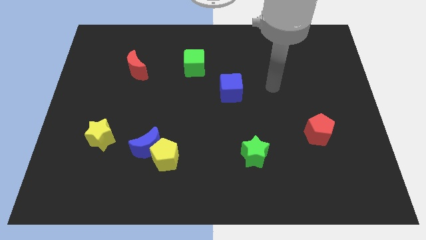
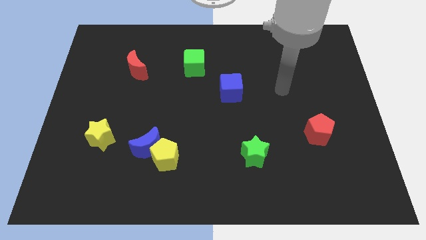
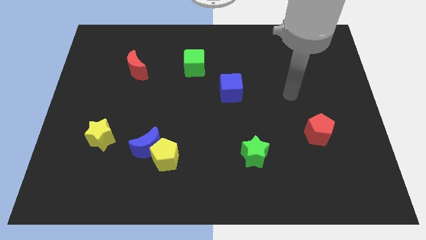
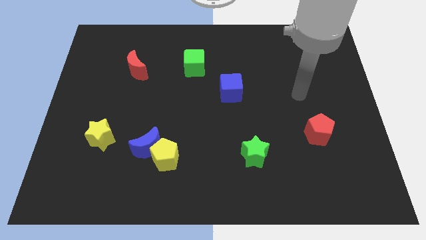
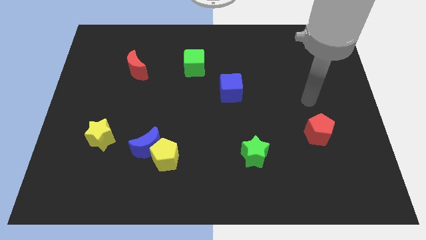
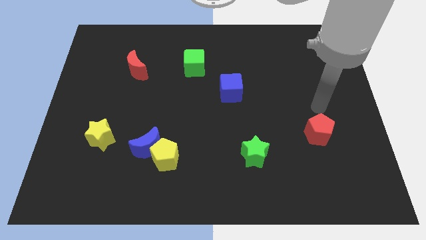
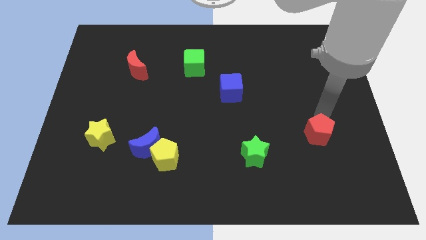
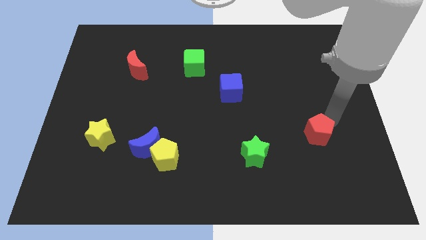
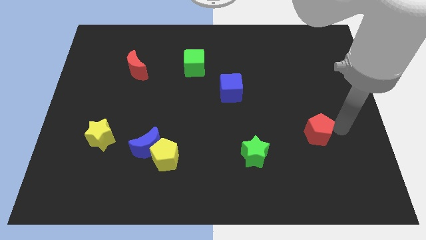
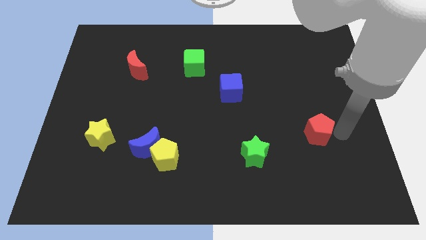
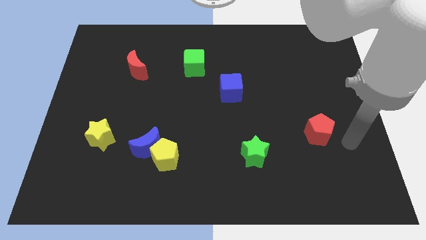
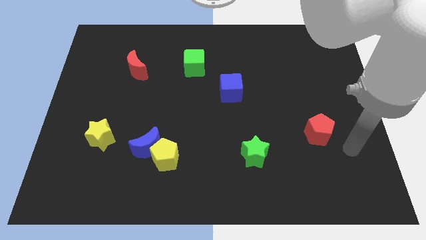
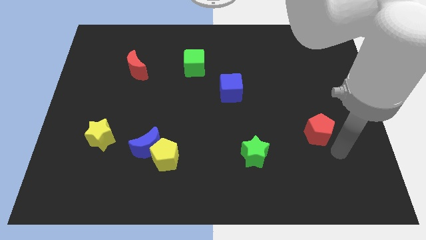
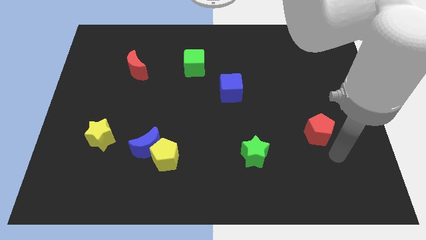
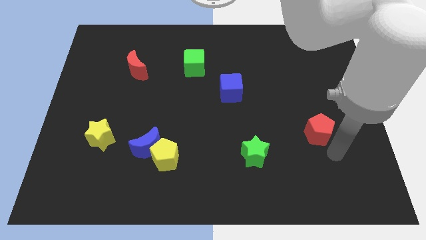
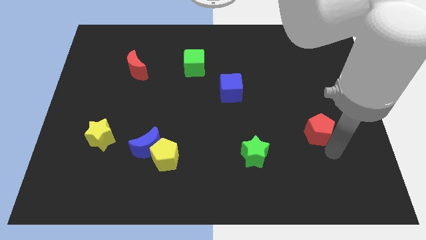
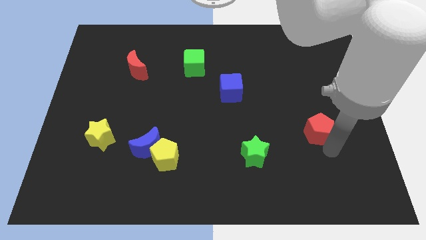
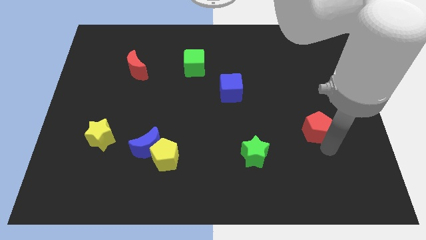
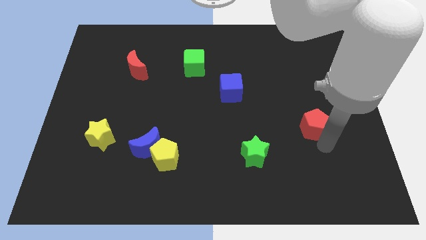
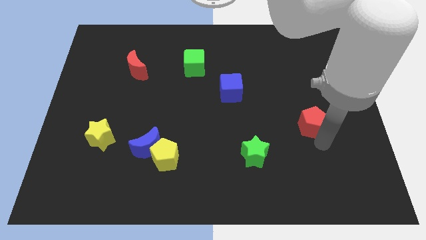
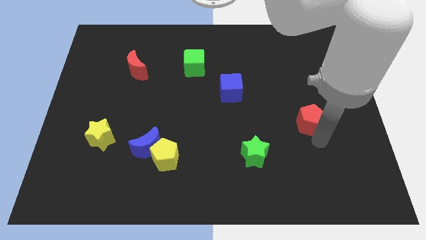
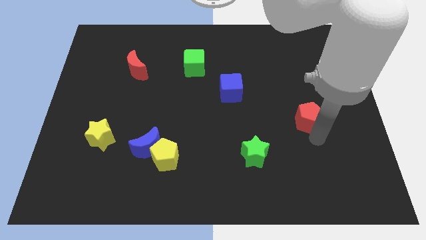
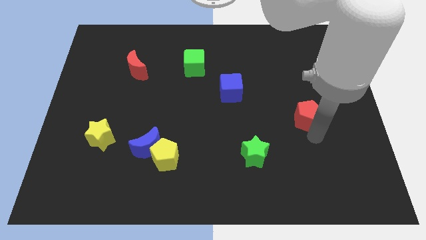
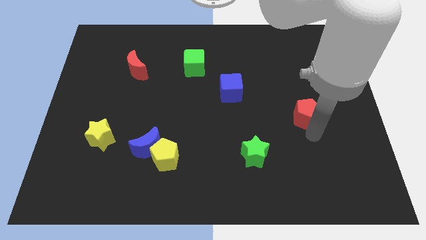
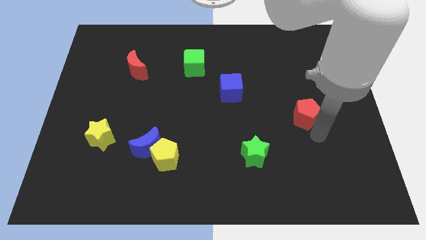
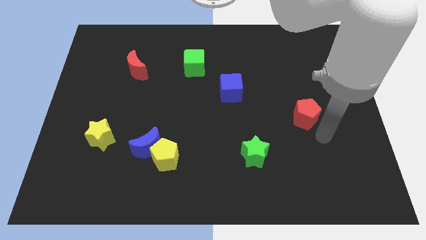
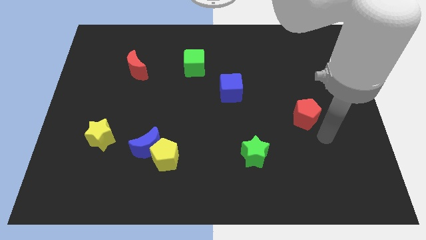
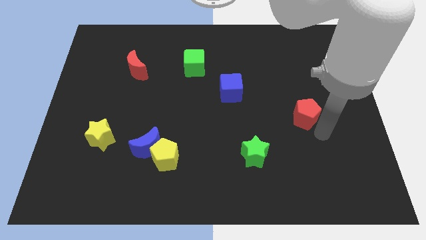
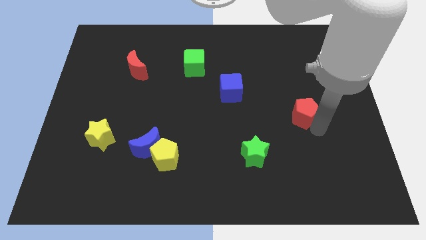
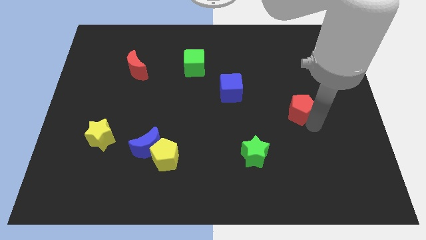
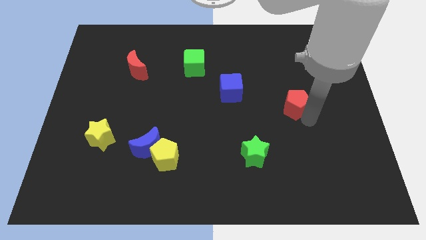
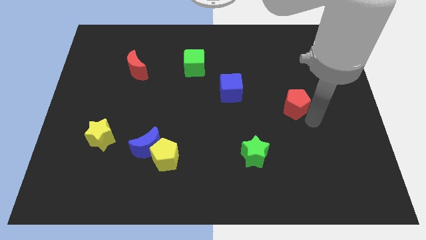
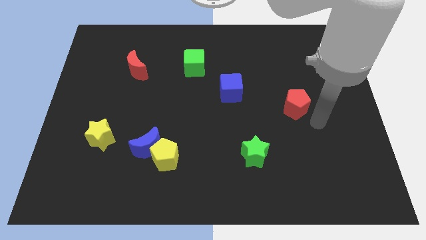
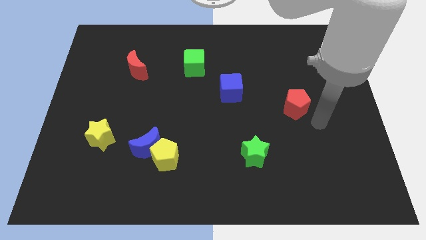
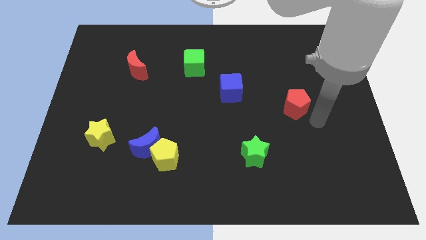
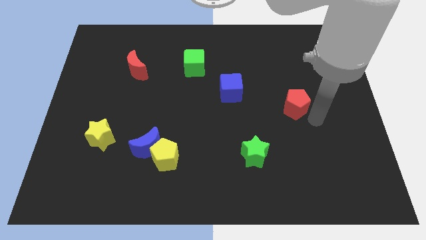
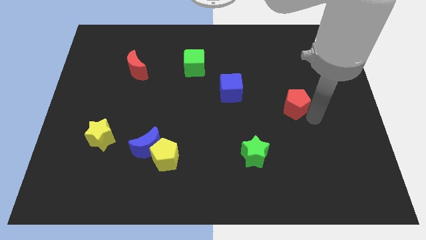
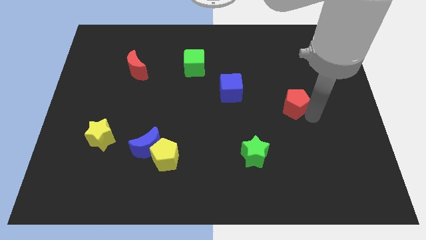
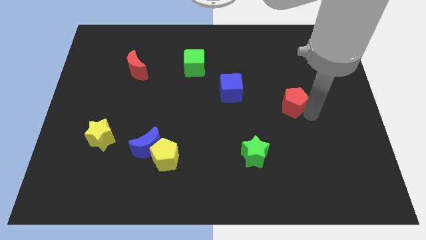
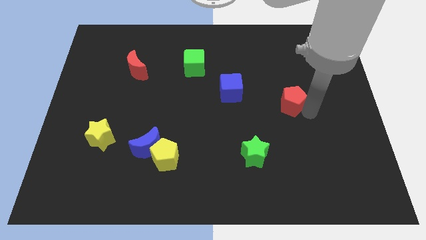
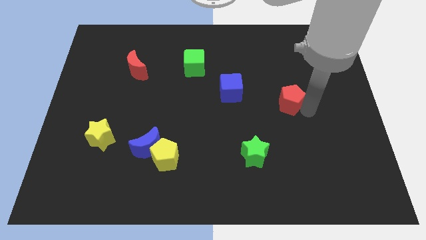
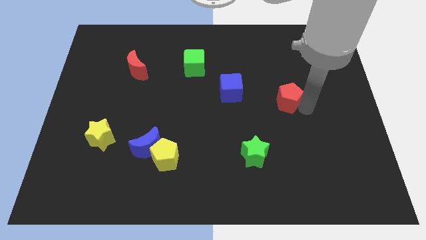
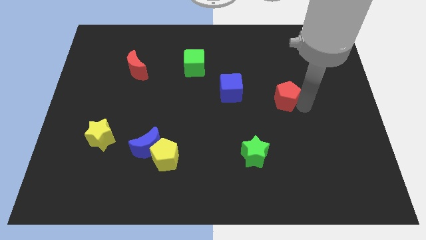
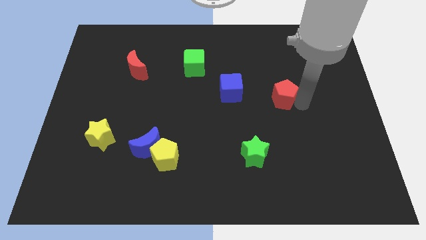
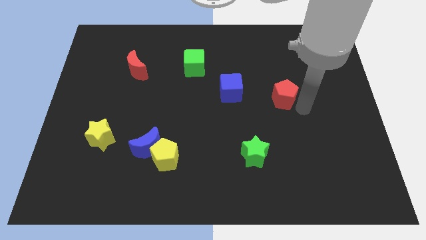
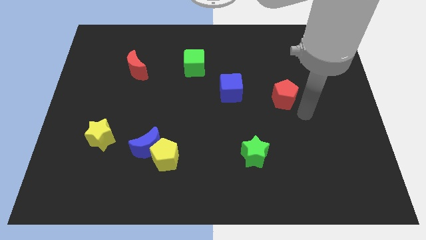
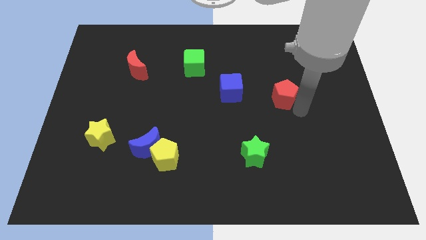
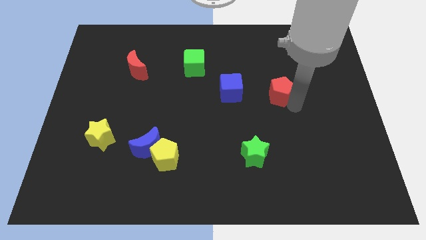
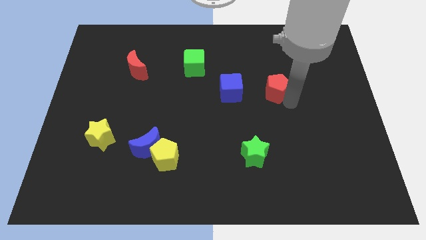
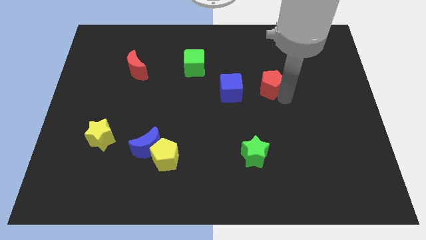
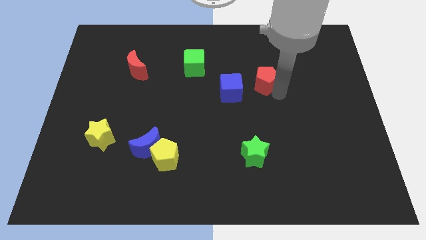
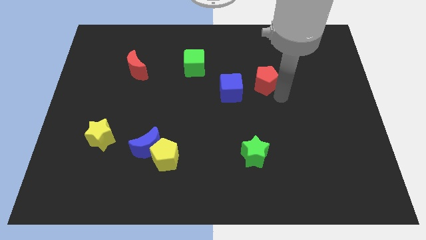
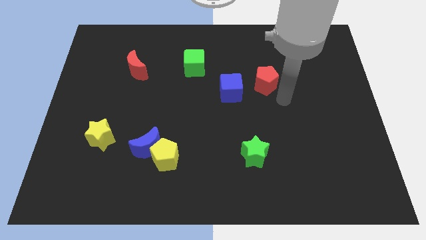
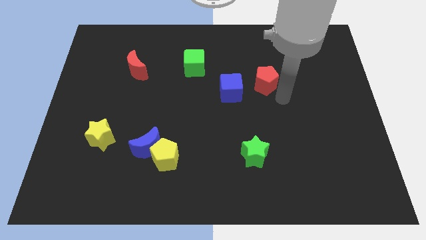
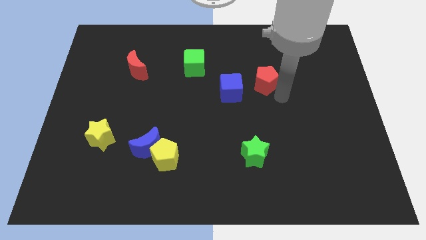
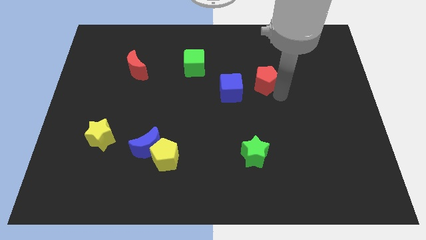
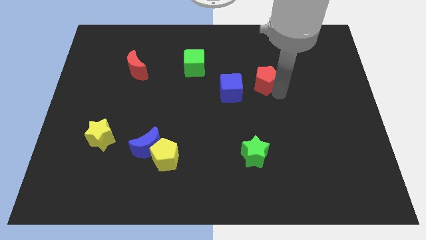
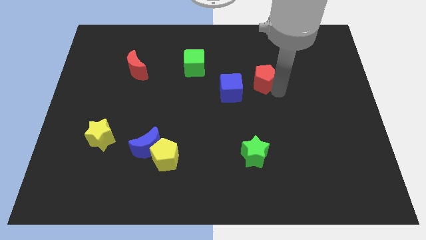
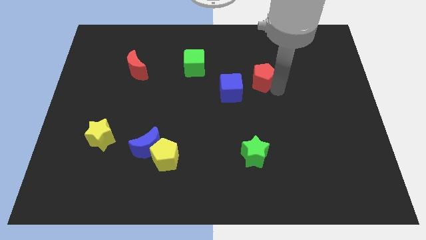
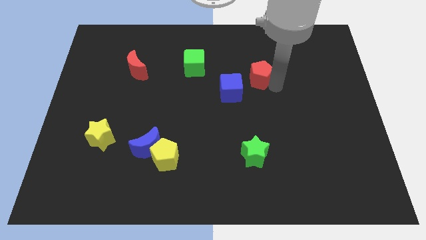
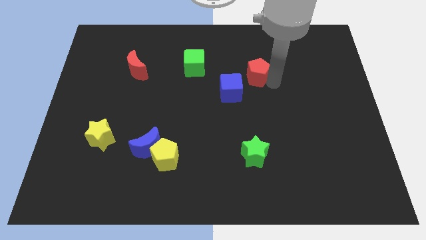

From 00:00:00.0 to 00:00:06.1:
slide the red pentagon diagonally up and to the left

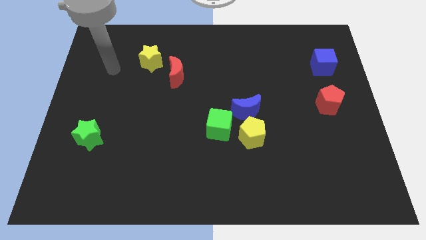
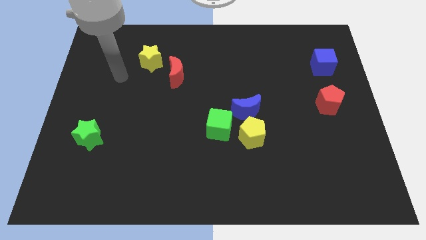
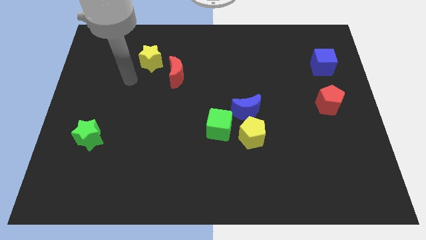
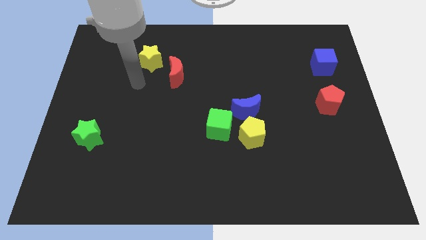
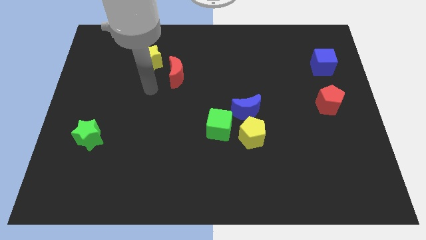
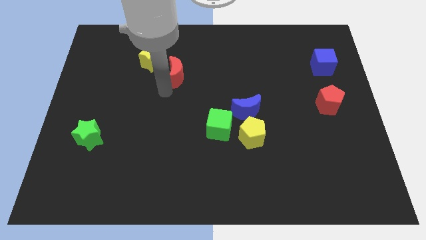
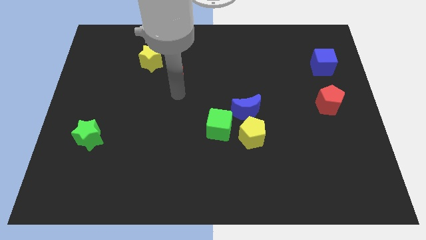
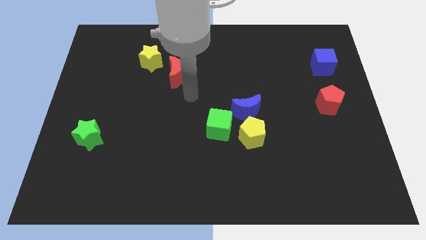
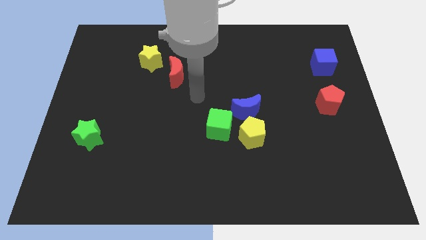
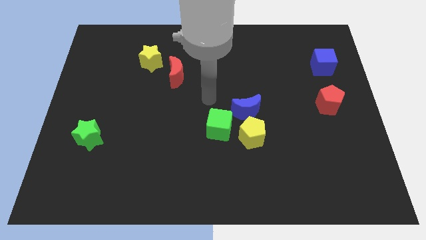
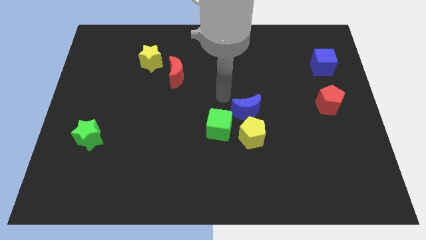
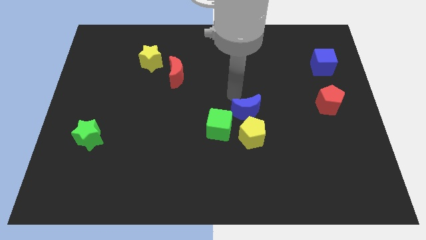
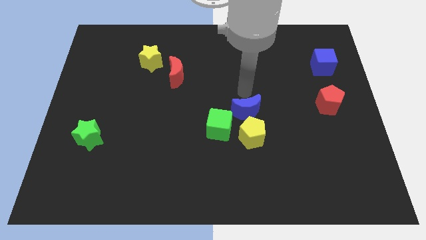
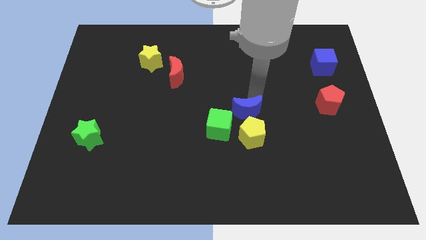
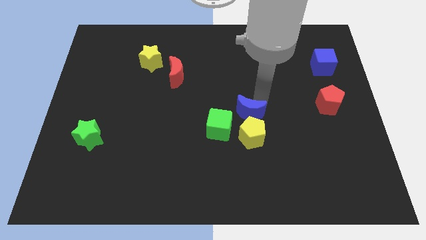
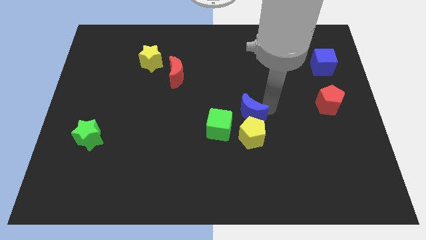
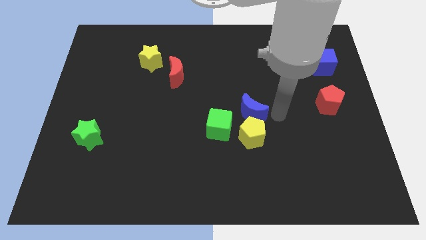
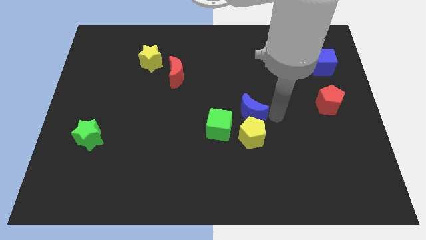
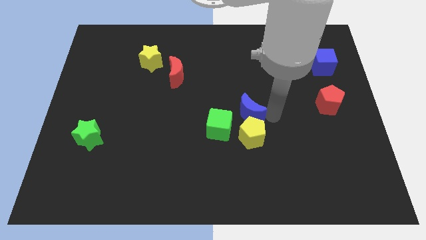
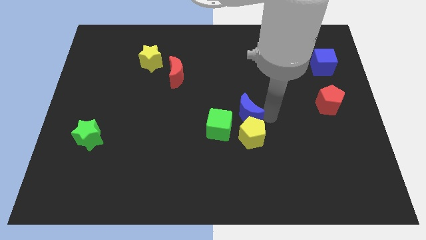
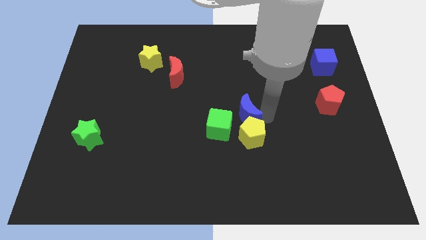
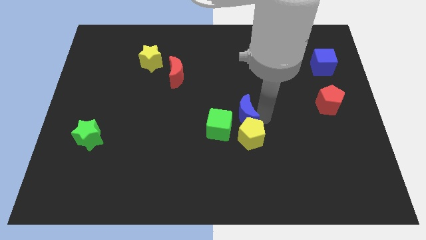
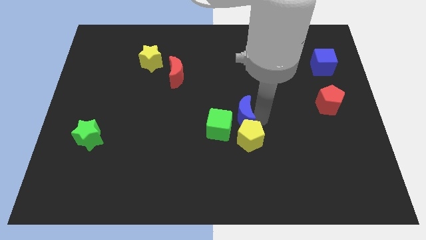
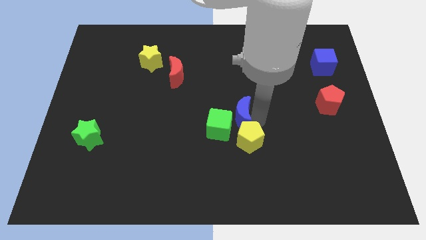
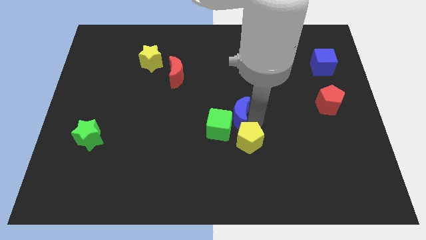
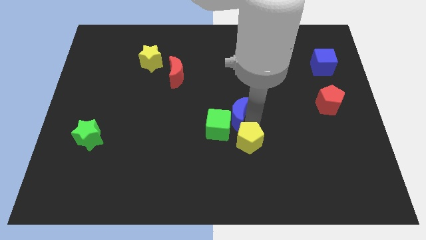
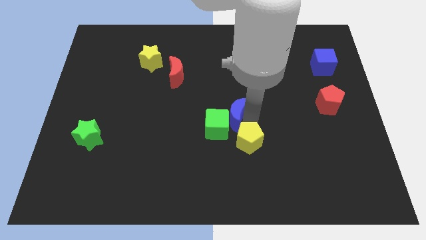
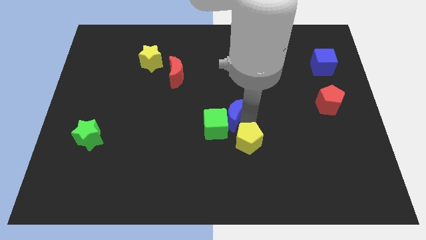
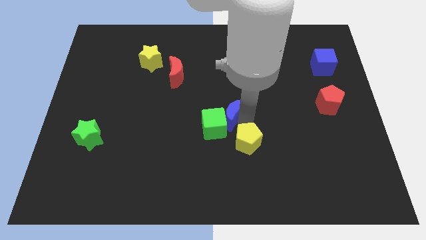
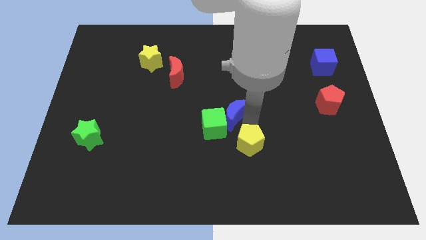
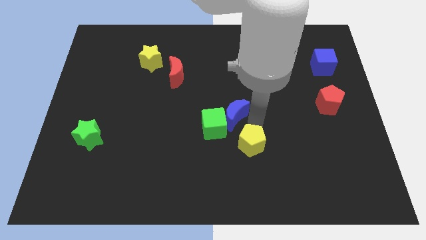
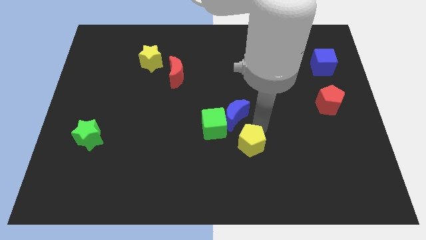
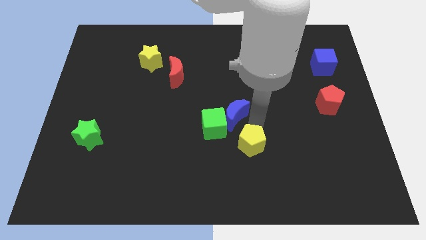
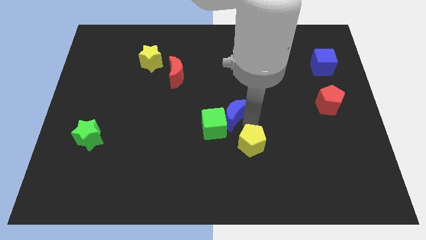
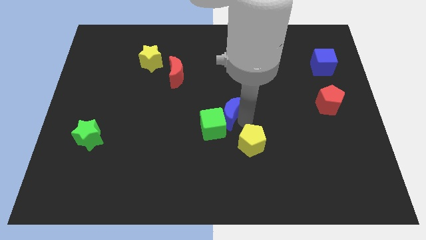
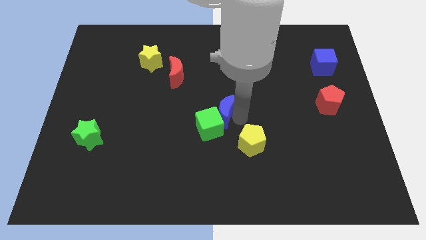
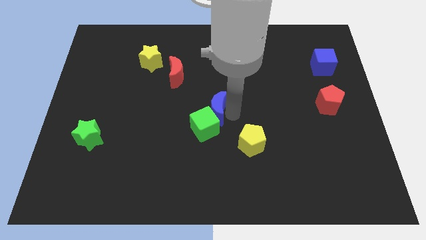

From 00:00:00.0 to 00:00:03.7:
slightly move the blue moon left
